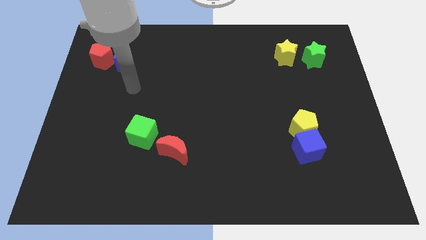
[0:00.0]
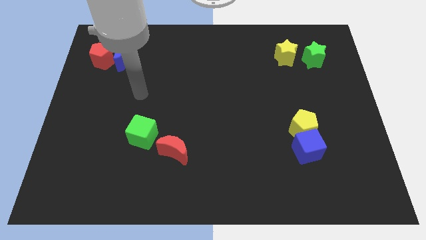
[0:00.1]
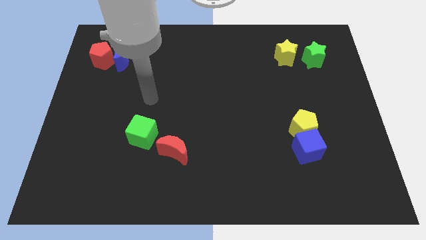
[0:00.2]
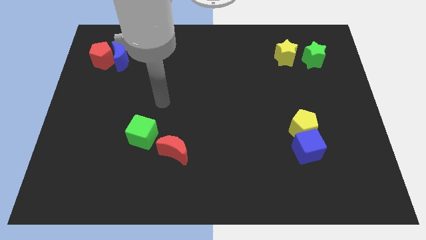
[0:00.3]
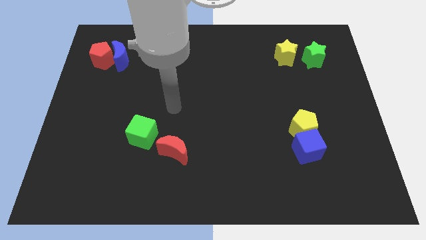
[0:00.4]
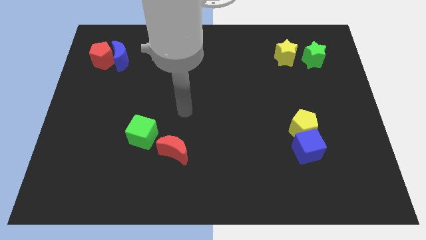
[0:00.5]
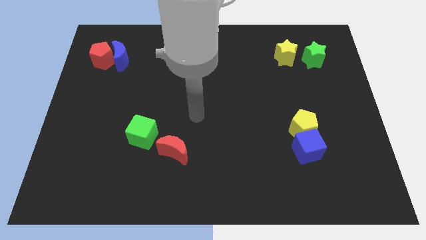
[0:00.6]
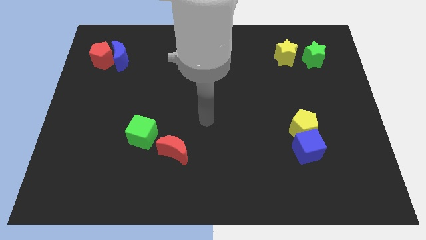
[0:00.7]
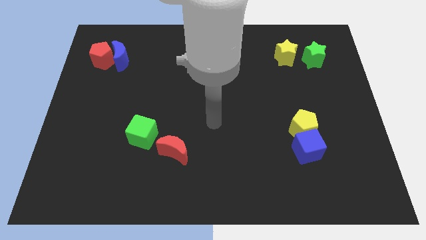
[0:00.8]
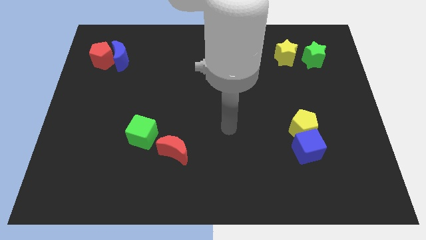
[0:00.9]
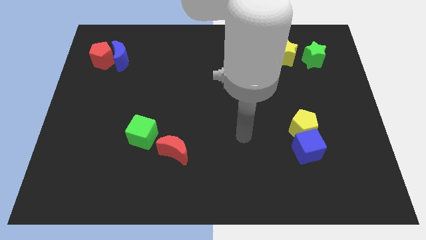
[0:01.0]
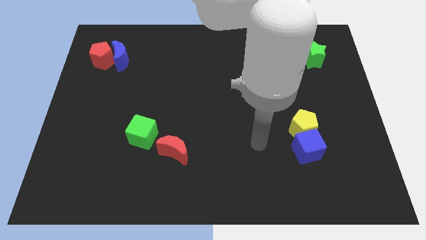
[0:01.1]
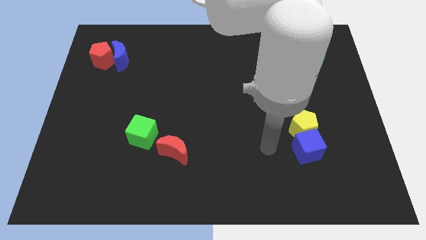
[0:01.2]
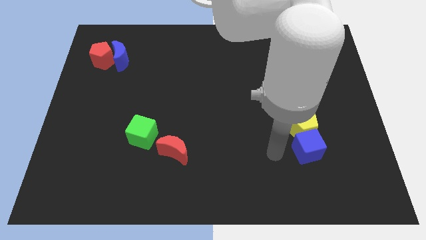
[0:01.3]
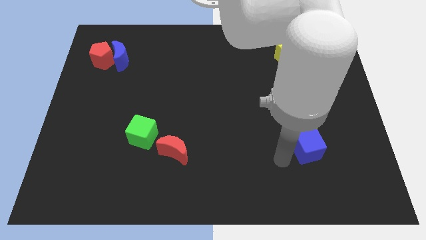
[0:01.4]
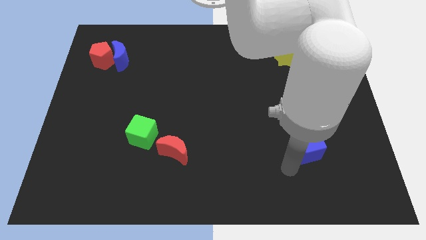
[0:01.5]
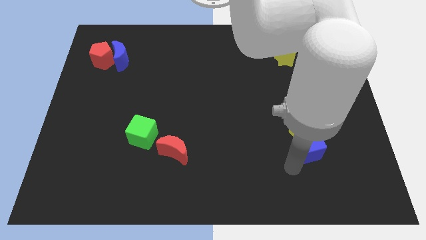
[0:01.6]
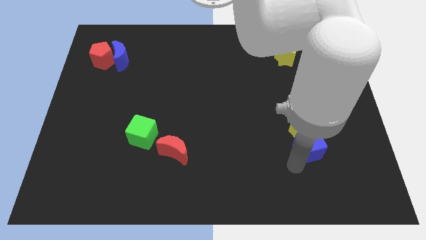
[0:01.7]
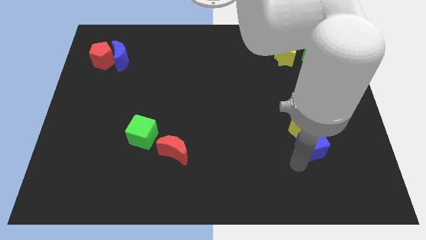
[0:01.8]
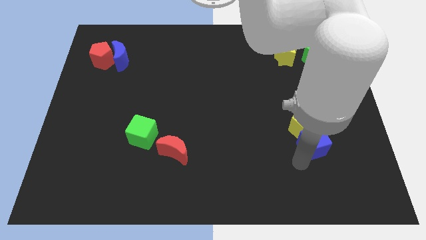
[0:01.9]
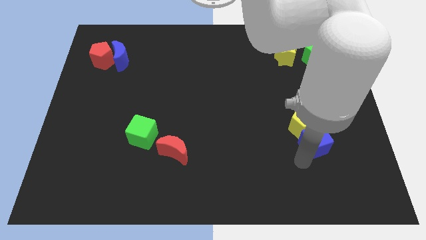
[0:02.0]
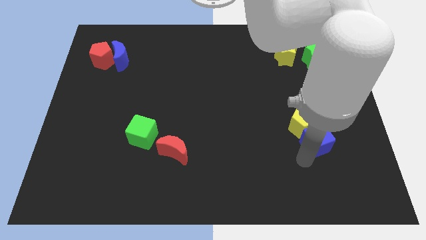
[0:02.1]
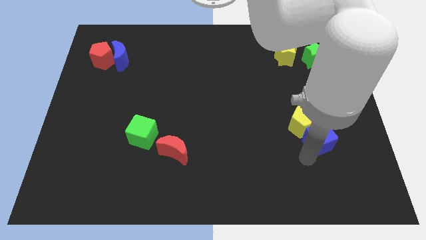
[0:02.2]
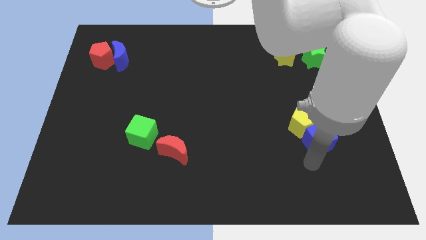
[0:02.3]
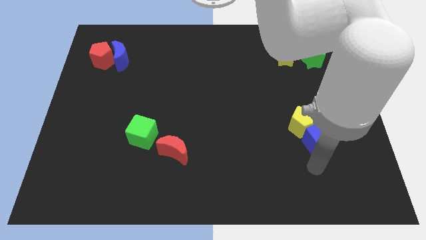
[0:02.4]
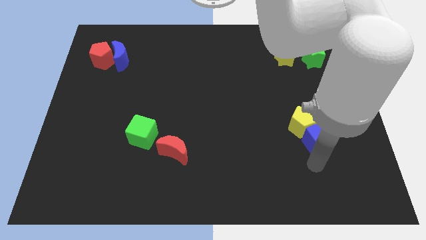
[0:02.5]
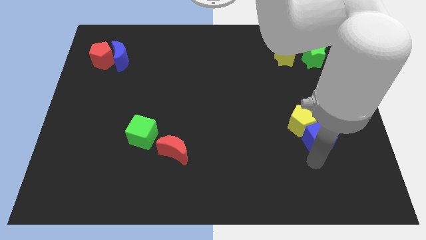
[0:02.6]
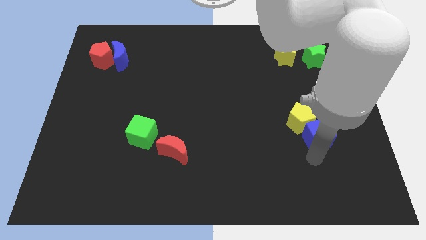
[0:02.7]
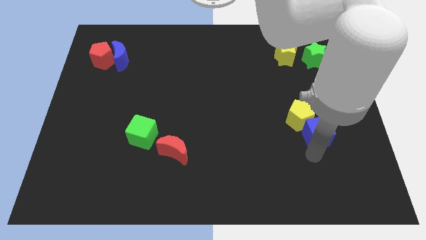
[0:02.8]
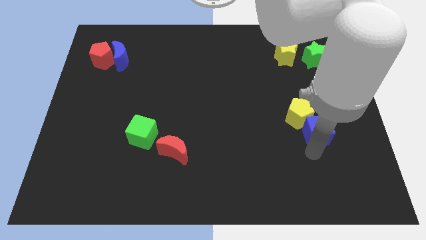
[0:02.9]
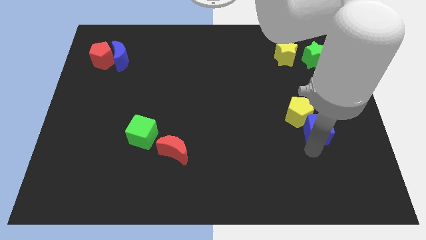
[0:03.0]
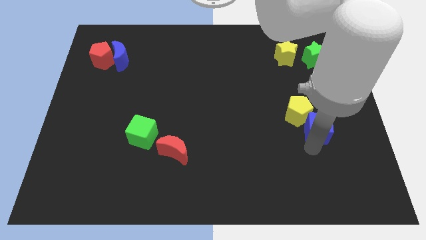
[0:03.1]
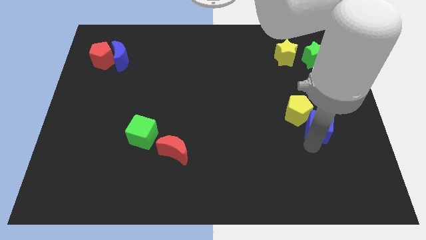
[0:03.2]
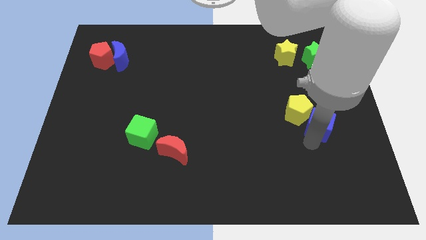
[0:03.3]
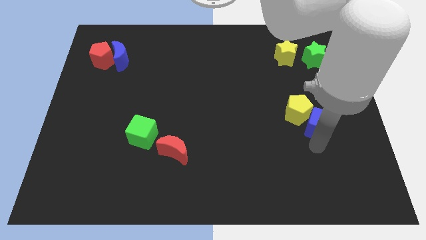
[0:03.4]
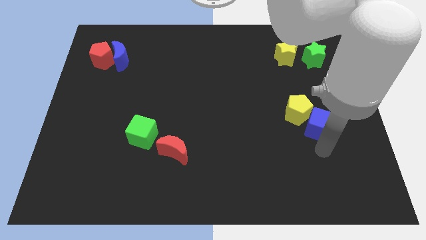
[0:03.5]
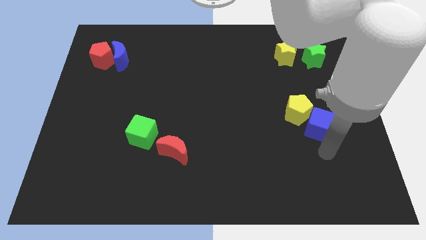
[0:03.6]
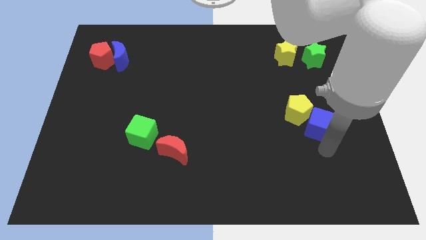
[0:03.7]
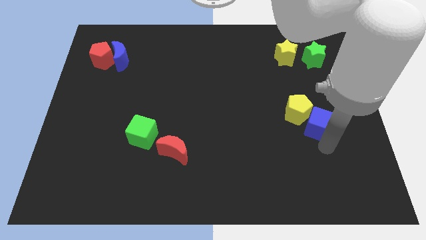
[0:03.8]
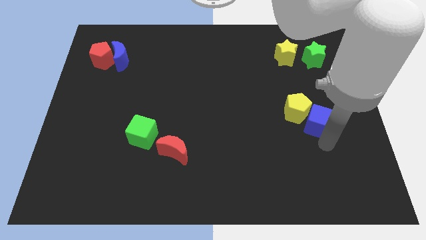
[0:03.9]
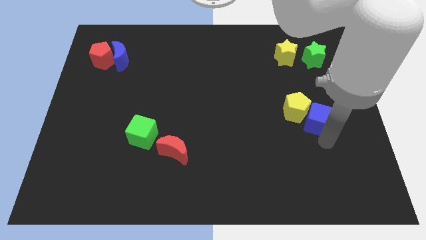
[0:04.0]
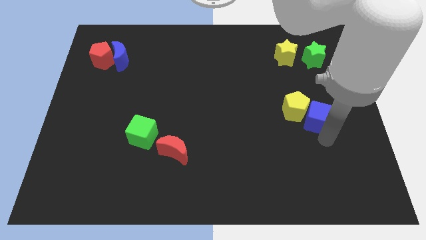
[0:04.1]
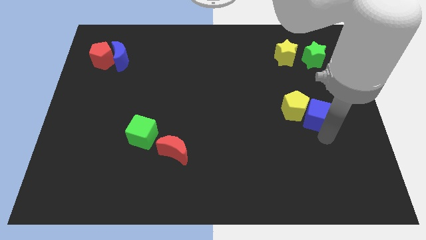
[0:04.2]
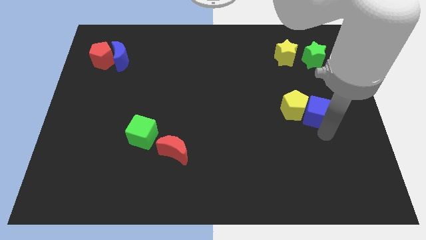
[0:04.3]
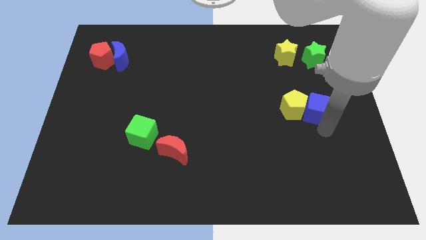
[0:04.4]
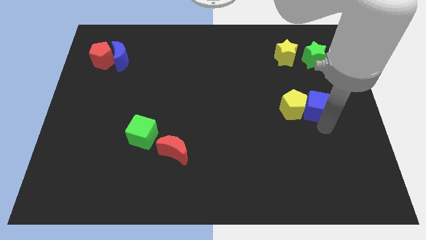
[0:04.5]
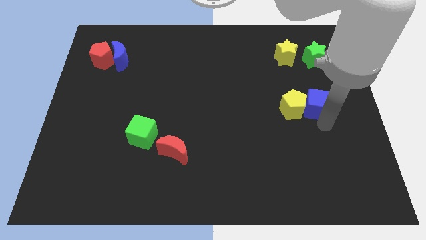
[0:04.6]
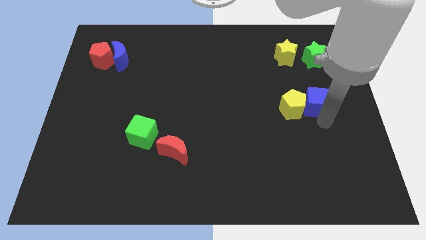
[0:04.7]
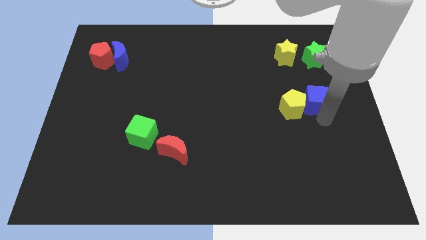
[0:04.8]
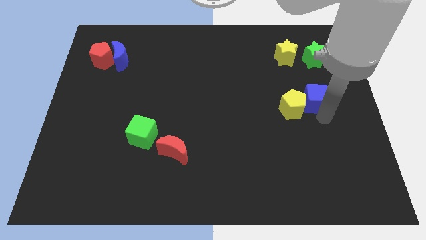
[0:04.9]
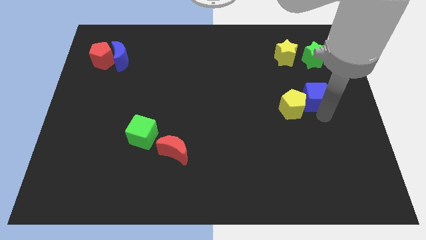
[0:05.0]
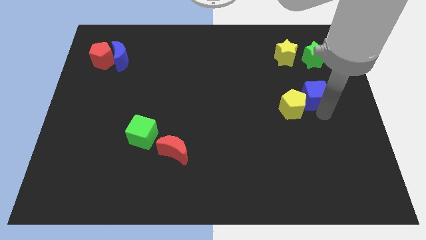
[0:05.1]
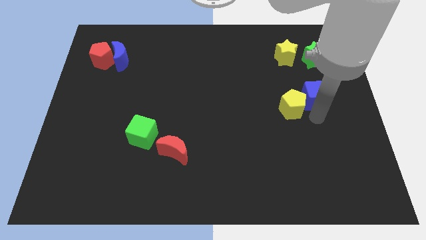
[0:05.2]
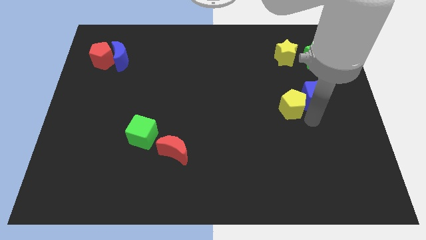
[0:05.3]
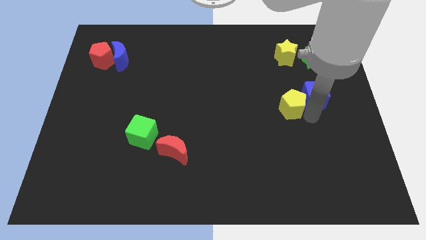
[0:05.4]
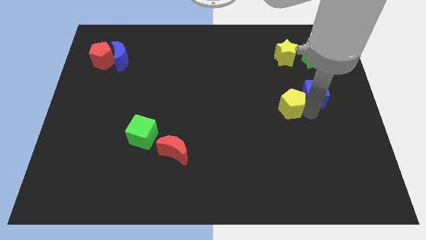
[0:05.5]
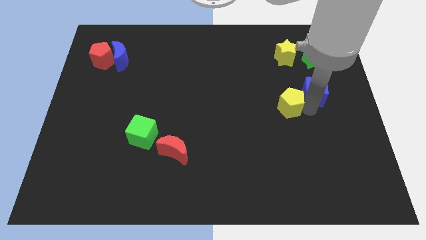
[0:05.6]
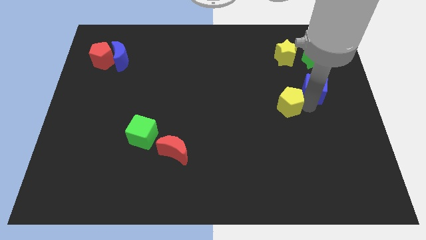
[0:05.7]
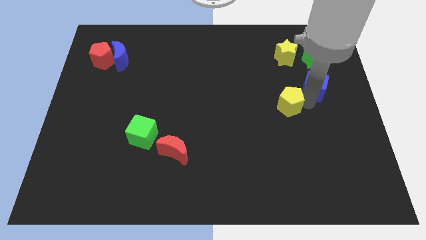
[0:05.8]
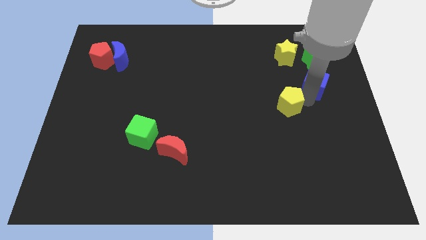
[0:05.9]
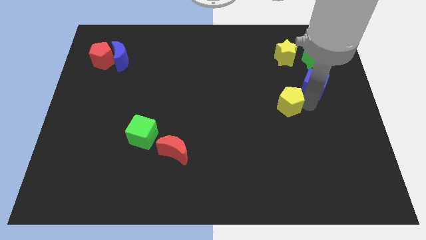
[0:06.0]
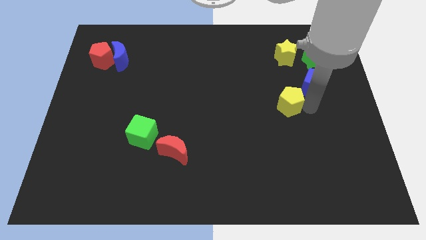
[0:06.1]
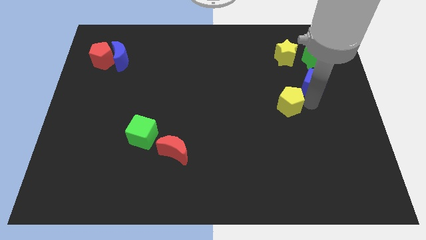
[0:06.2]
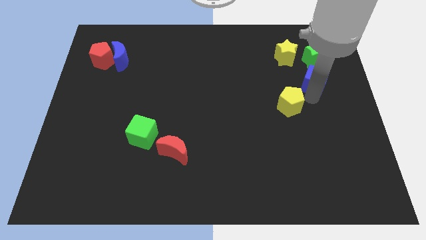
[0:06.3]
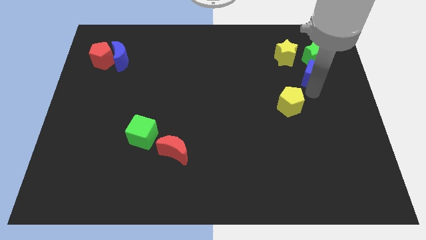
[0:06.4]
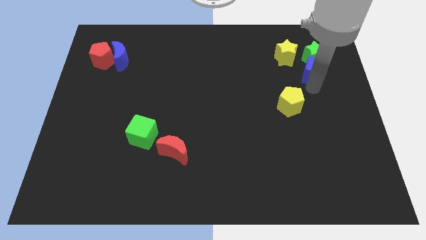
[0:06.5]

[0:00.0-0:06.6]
move the blue cube to the green star

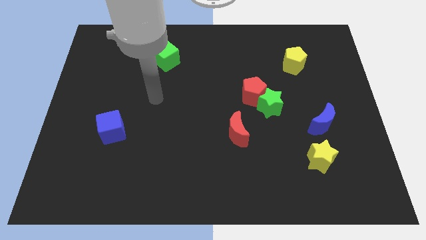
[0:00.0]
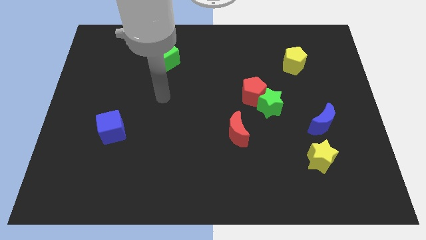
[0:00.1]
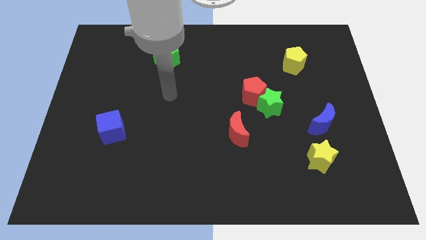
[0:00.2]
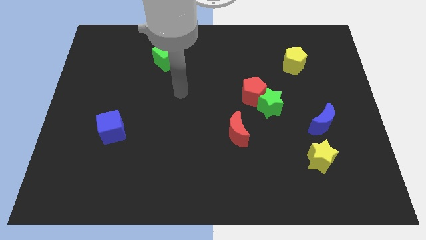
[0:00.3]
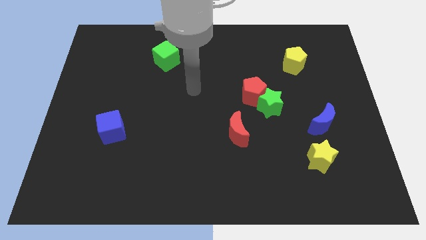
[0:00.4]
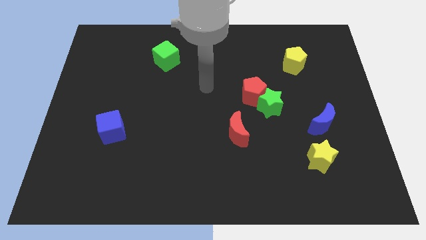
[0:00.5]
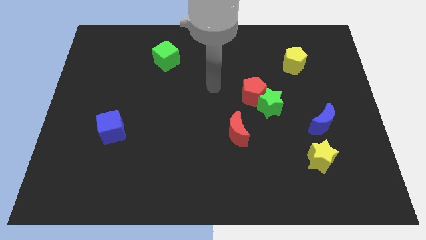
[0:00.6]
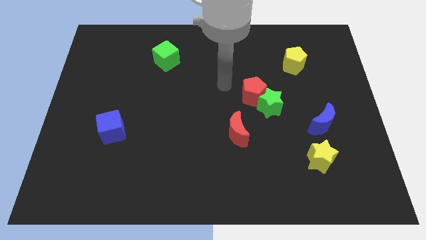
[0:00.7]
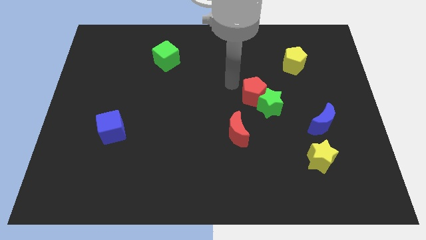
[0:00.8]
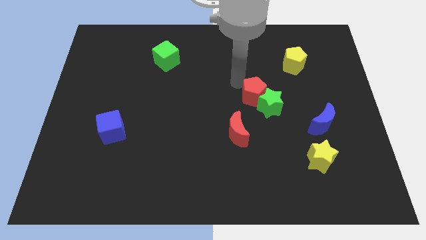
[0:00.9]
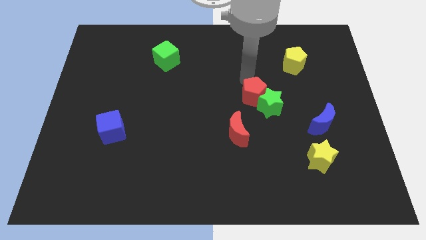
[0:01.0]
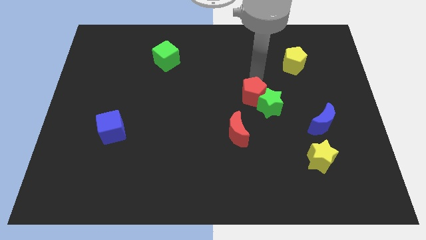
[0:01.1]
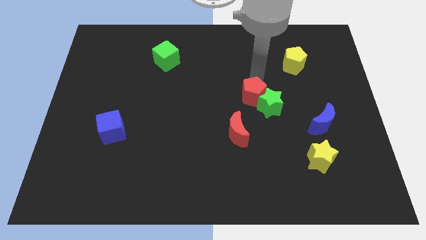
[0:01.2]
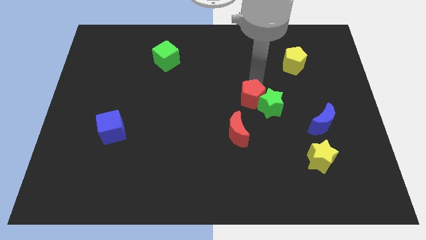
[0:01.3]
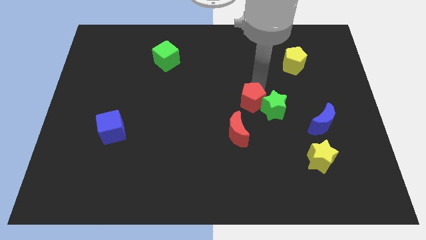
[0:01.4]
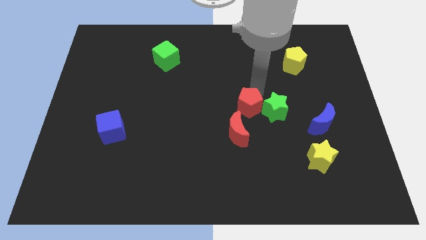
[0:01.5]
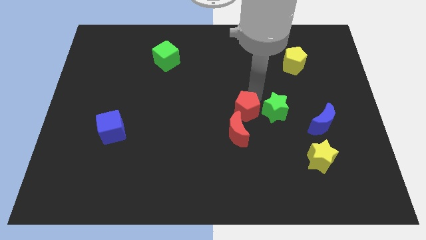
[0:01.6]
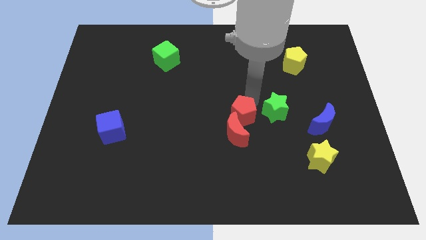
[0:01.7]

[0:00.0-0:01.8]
move the red pentagon to the red moon
